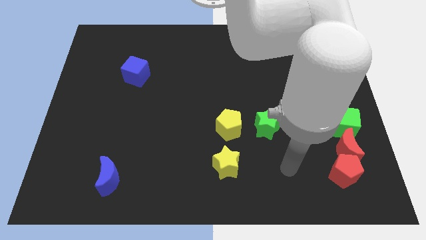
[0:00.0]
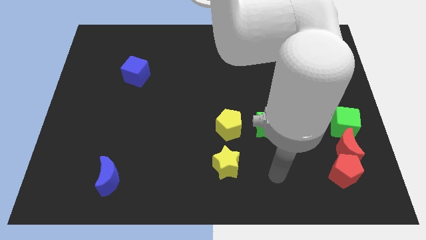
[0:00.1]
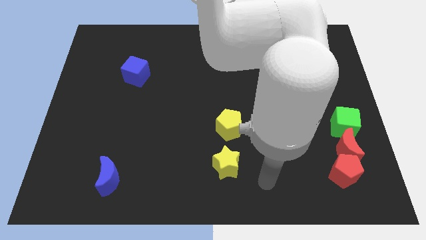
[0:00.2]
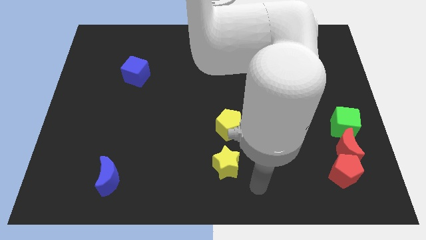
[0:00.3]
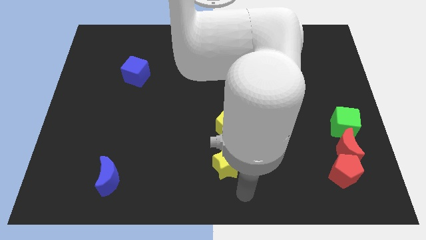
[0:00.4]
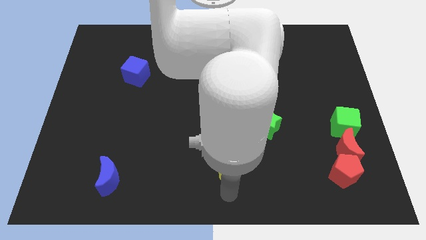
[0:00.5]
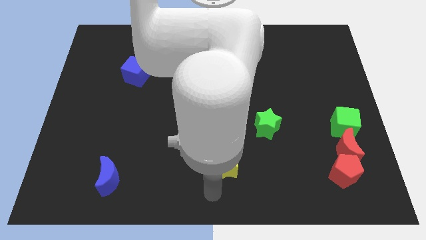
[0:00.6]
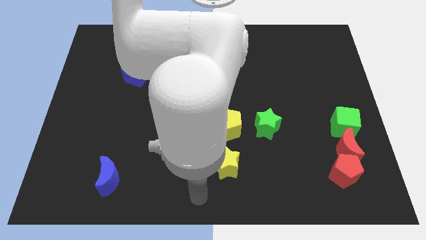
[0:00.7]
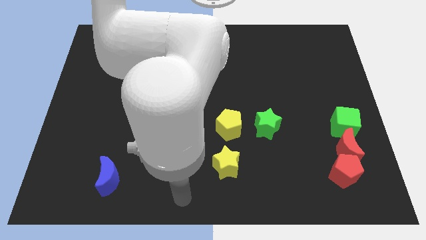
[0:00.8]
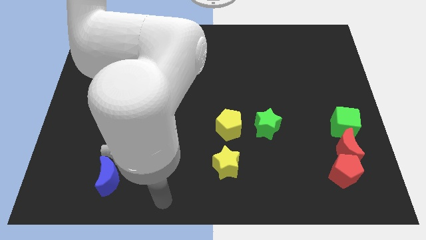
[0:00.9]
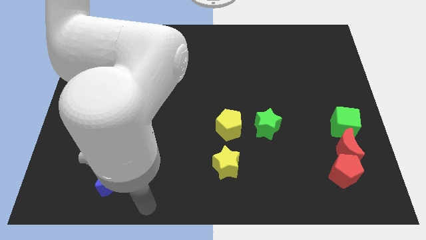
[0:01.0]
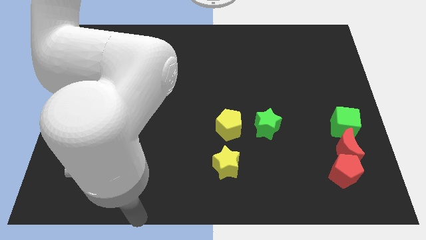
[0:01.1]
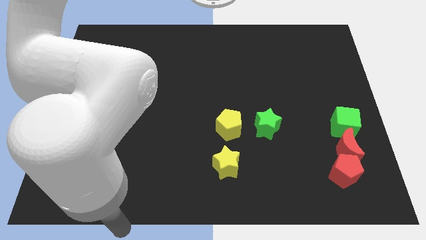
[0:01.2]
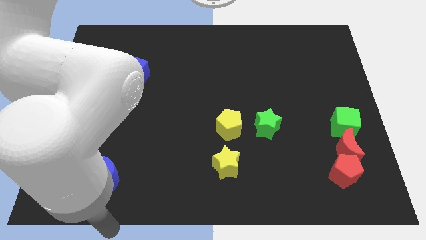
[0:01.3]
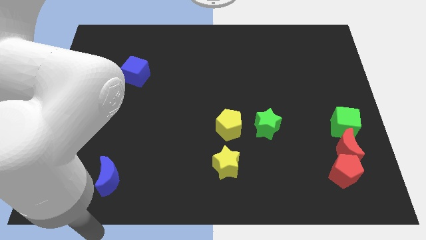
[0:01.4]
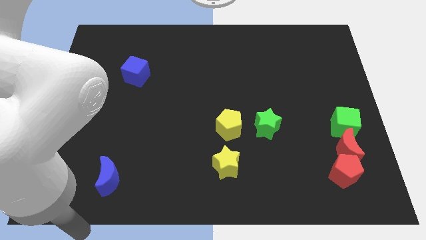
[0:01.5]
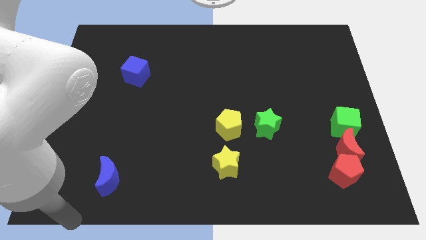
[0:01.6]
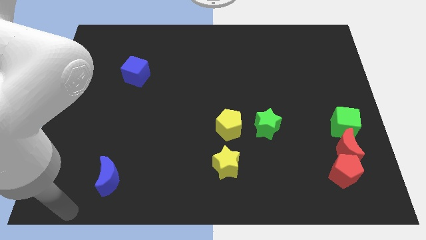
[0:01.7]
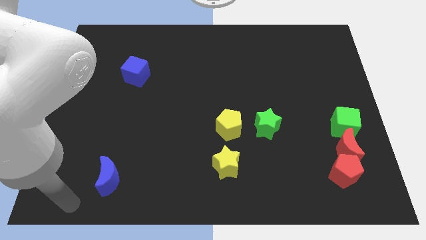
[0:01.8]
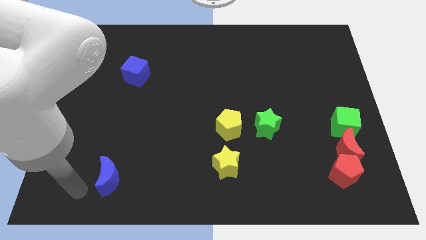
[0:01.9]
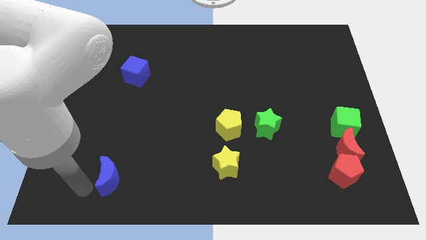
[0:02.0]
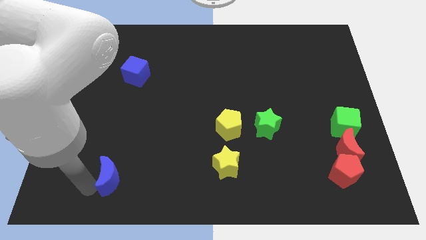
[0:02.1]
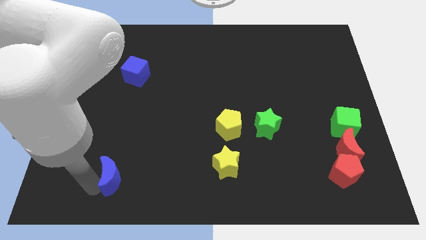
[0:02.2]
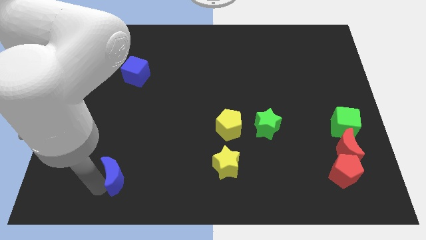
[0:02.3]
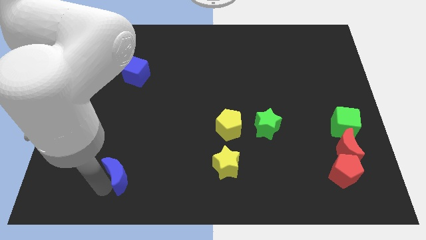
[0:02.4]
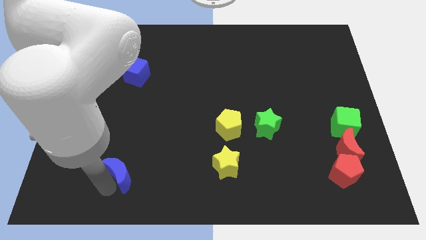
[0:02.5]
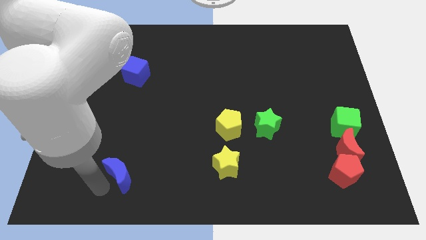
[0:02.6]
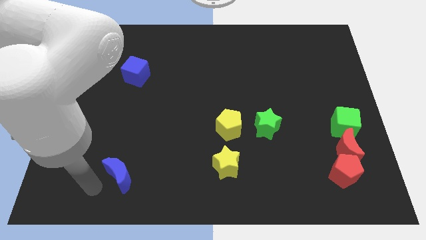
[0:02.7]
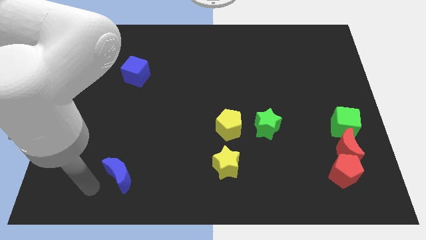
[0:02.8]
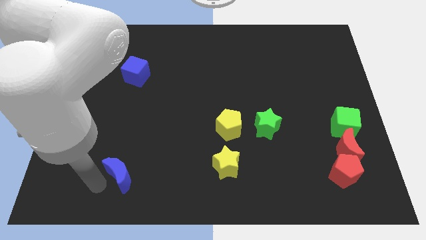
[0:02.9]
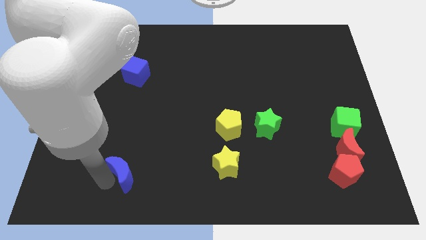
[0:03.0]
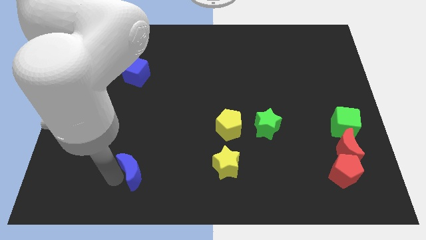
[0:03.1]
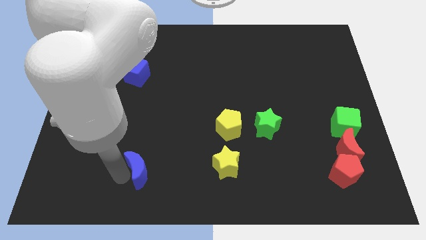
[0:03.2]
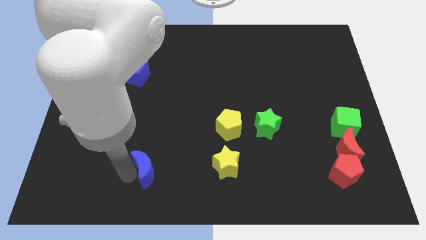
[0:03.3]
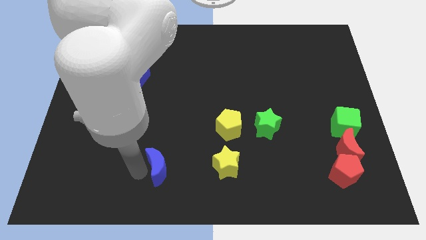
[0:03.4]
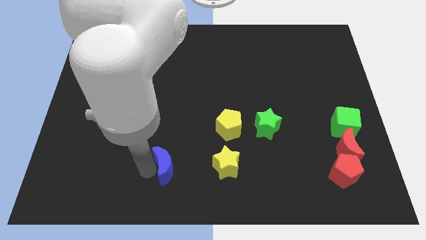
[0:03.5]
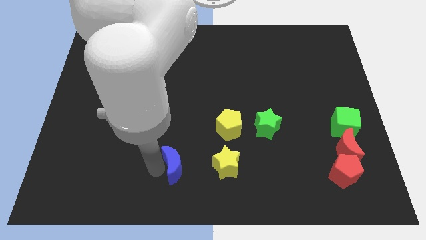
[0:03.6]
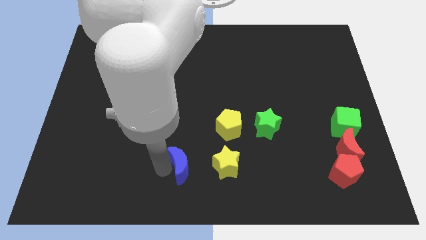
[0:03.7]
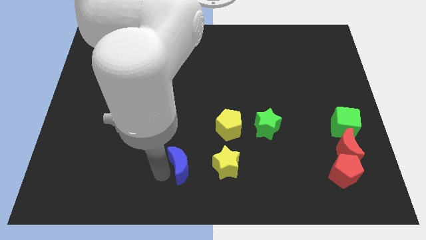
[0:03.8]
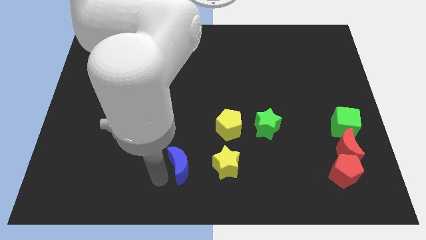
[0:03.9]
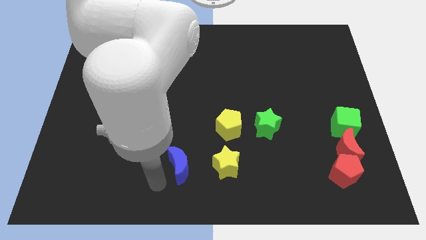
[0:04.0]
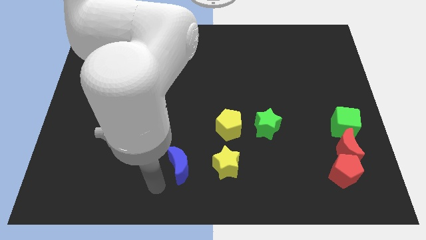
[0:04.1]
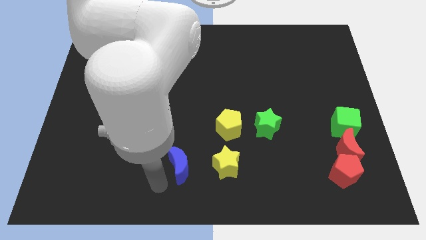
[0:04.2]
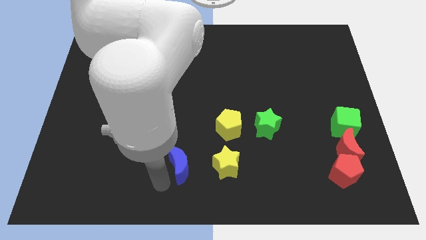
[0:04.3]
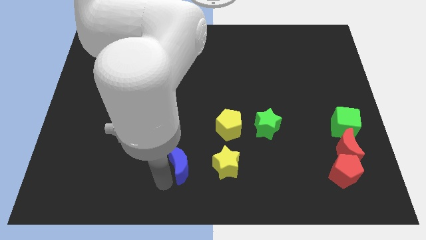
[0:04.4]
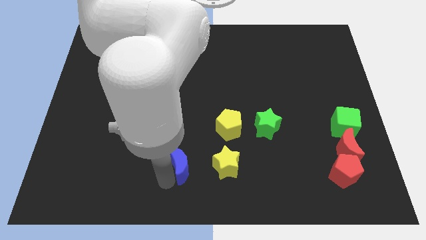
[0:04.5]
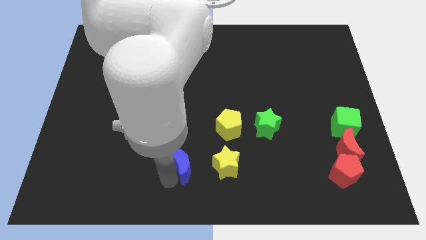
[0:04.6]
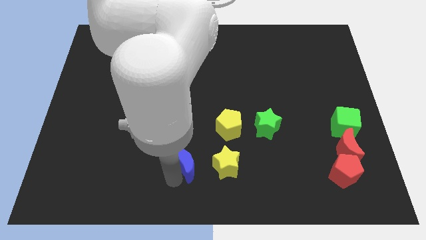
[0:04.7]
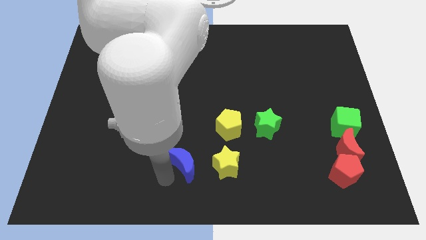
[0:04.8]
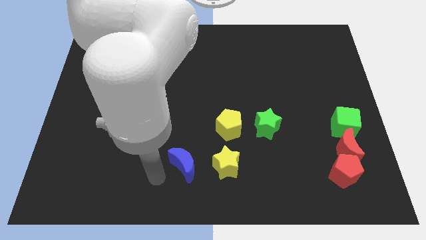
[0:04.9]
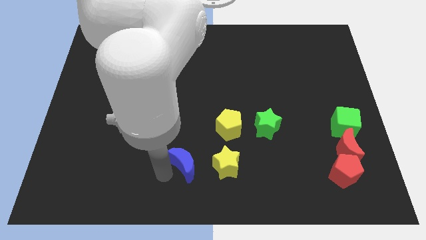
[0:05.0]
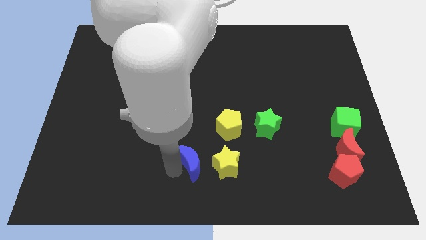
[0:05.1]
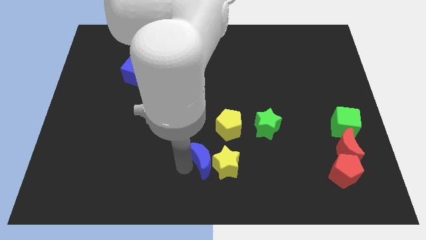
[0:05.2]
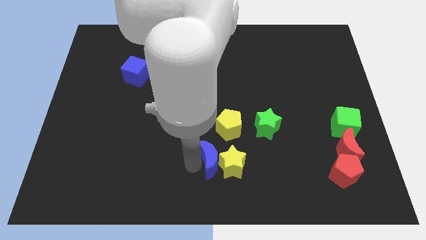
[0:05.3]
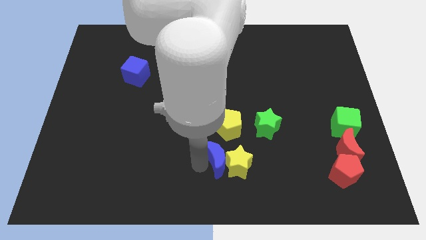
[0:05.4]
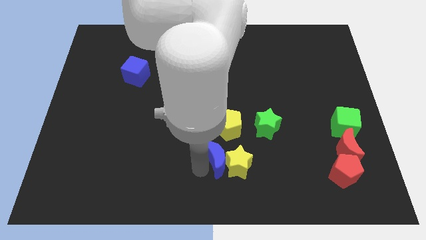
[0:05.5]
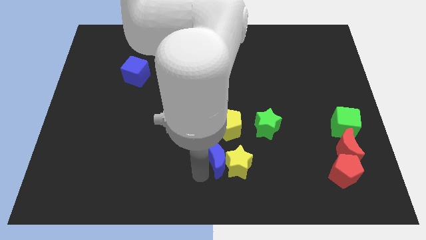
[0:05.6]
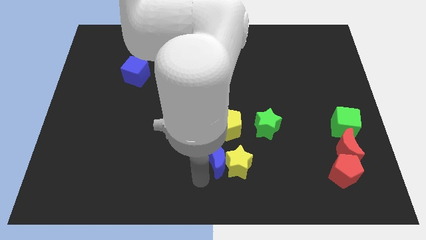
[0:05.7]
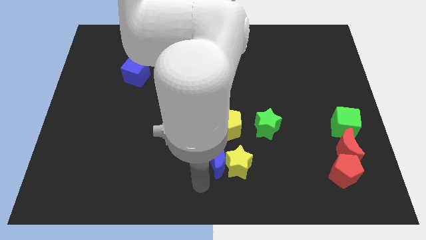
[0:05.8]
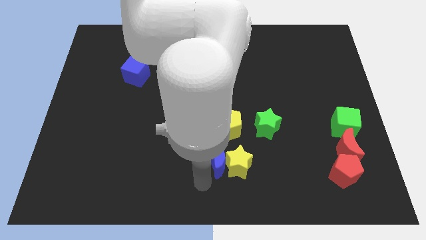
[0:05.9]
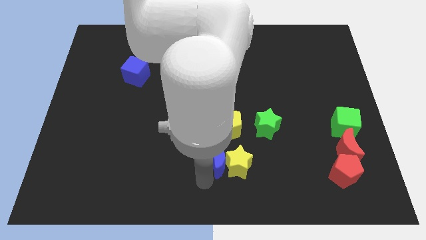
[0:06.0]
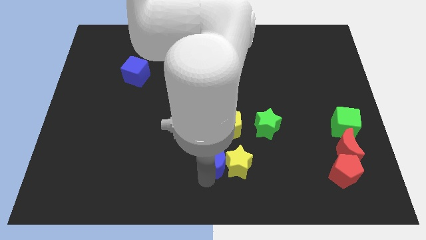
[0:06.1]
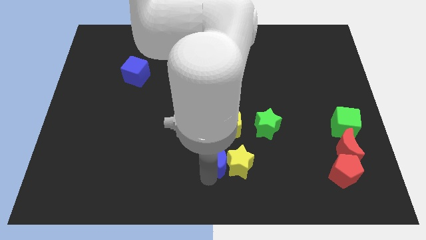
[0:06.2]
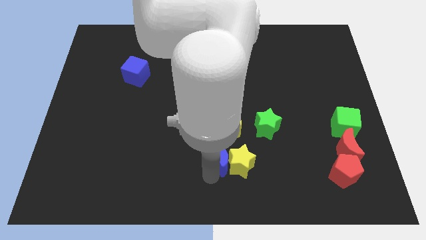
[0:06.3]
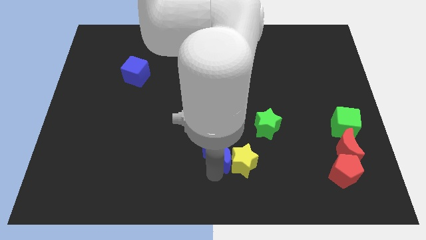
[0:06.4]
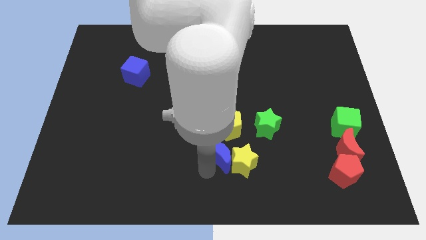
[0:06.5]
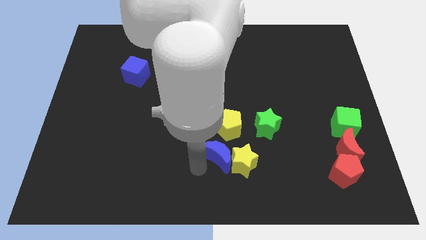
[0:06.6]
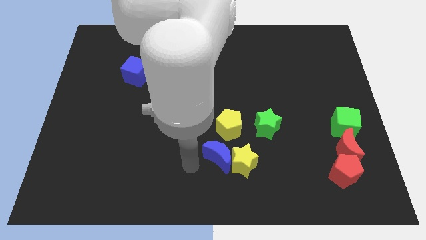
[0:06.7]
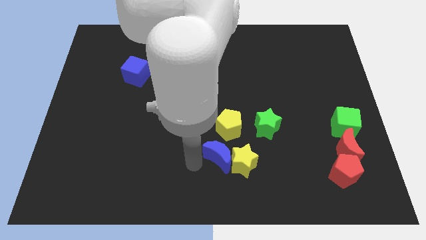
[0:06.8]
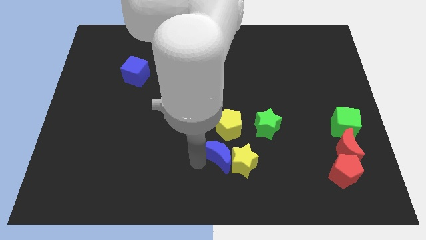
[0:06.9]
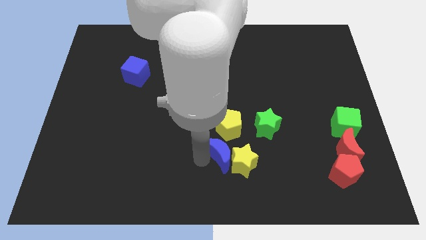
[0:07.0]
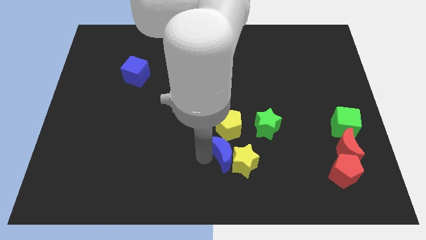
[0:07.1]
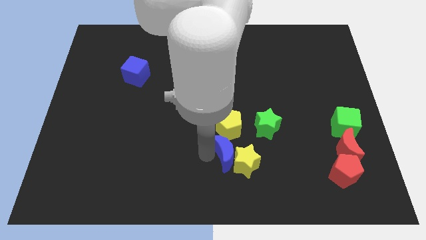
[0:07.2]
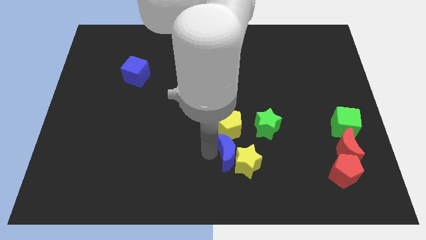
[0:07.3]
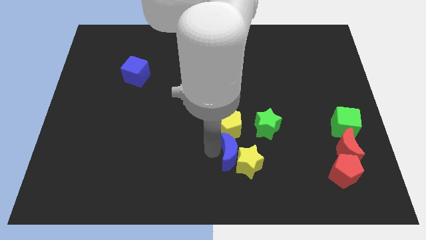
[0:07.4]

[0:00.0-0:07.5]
put the blue moon to the bottom right side of the yellow pentagon
